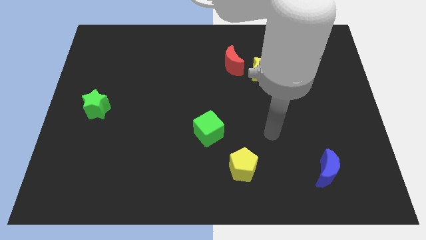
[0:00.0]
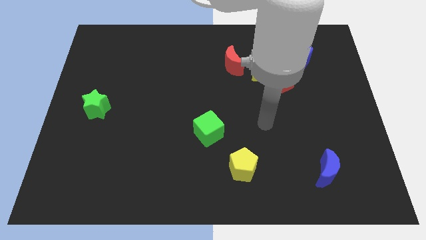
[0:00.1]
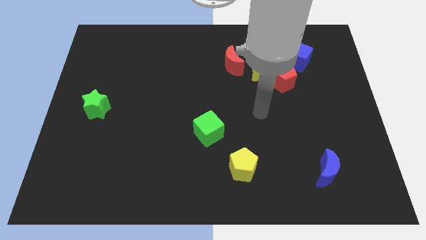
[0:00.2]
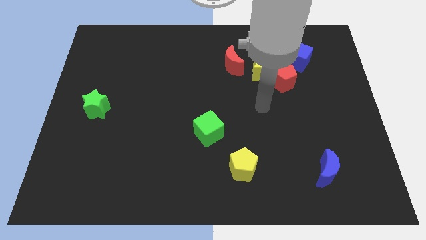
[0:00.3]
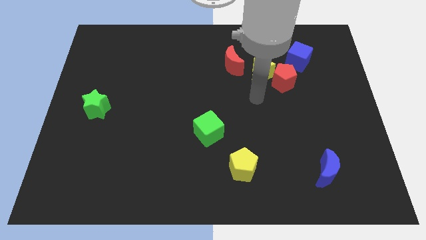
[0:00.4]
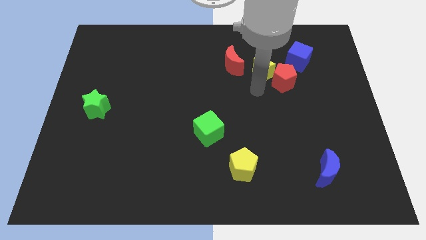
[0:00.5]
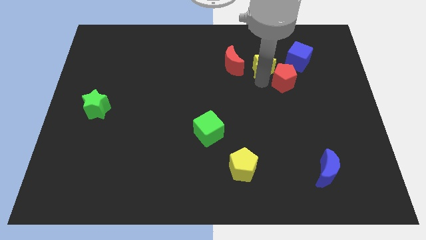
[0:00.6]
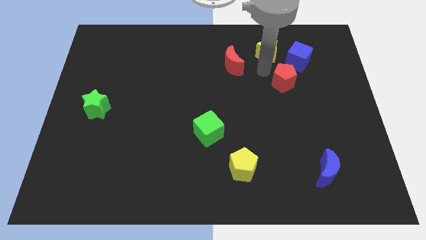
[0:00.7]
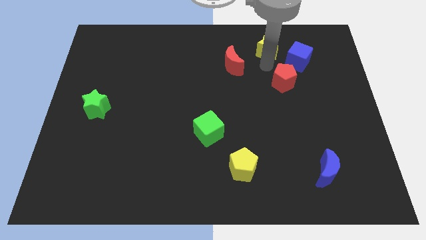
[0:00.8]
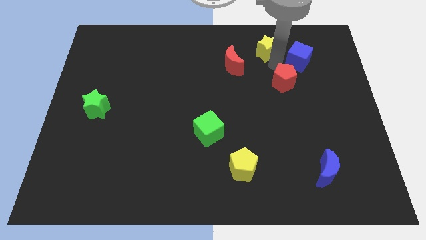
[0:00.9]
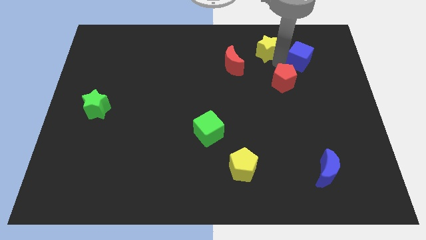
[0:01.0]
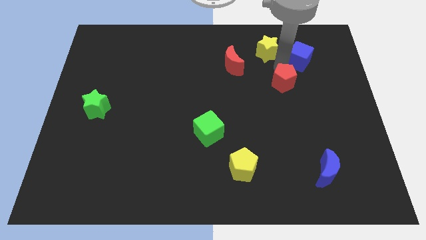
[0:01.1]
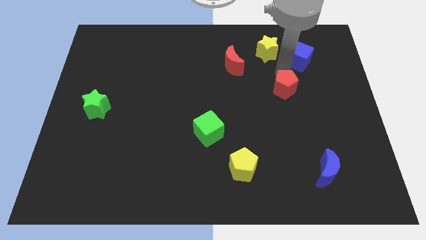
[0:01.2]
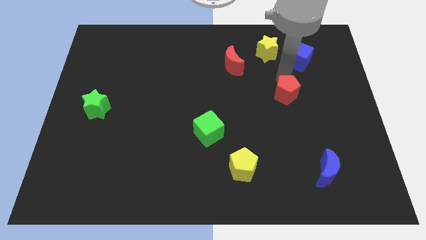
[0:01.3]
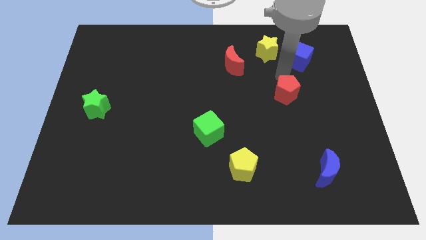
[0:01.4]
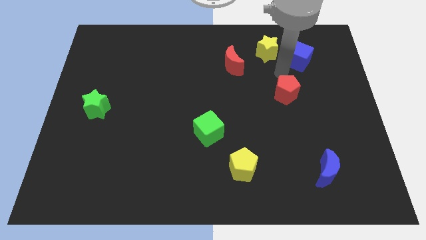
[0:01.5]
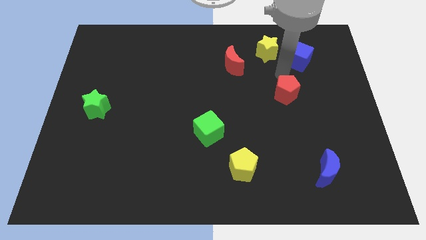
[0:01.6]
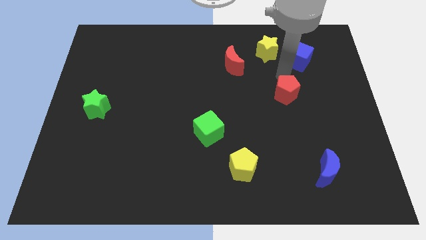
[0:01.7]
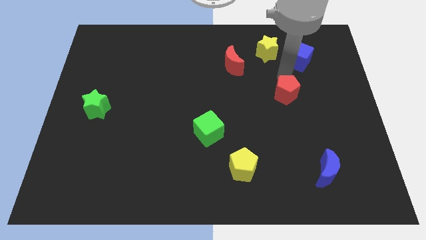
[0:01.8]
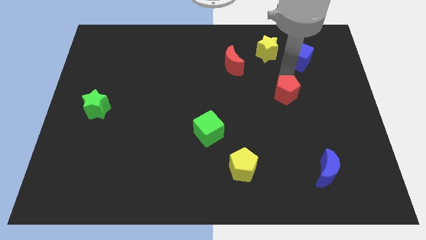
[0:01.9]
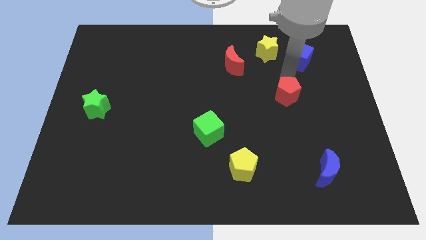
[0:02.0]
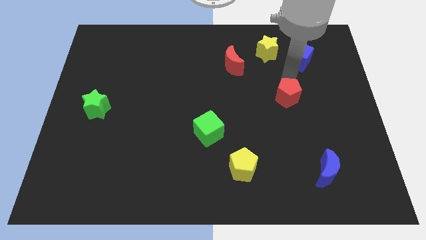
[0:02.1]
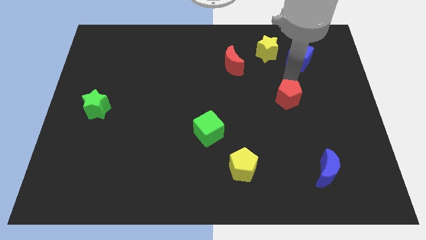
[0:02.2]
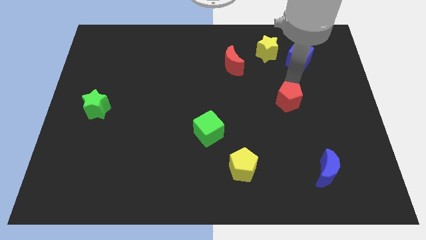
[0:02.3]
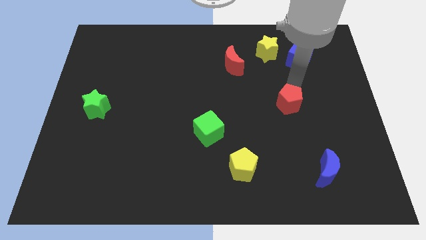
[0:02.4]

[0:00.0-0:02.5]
slide the red pentagon down somewhat

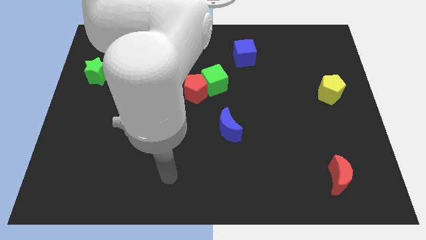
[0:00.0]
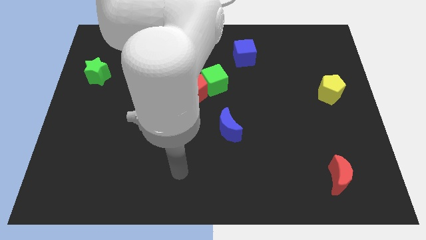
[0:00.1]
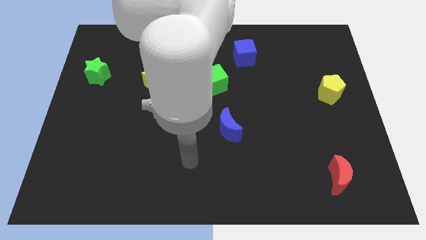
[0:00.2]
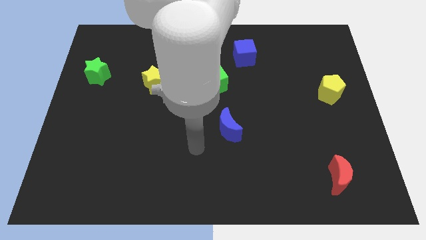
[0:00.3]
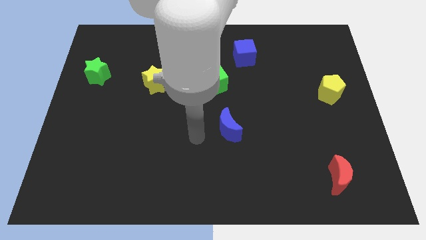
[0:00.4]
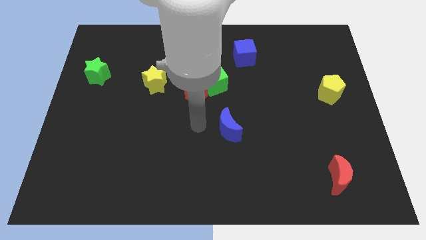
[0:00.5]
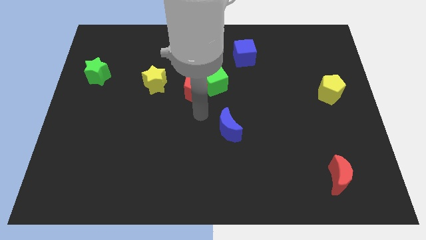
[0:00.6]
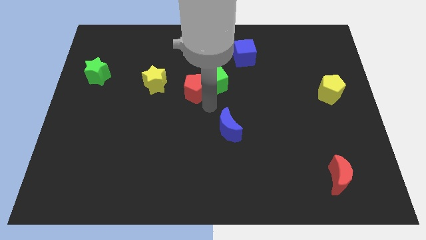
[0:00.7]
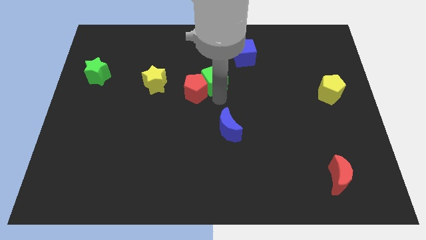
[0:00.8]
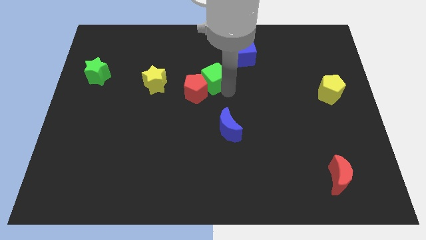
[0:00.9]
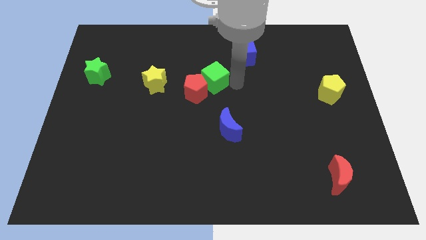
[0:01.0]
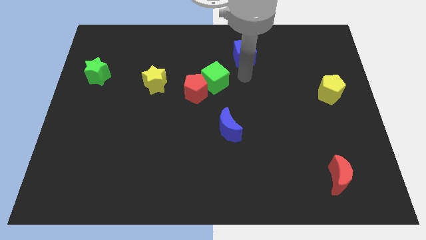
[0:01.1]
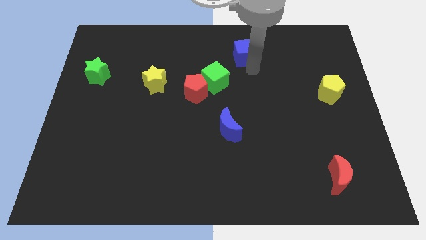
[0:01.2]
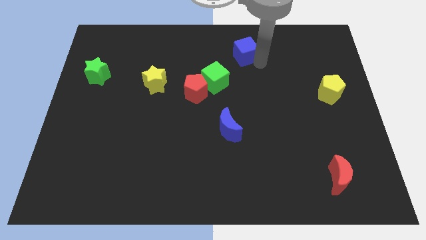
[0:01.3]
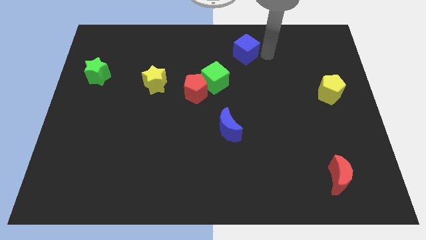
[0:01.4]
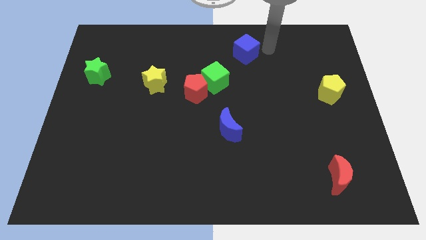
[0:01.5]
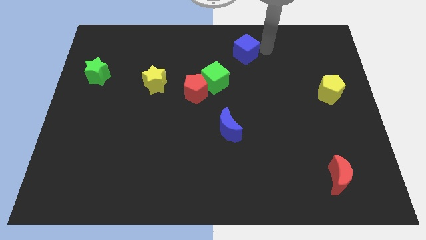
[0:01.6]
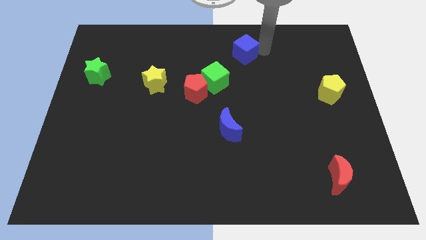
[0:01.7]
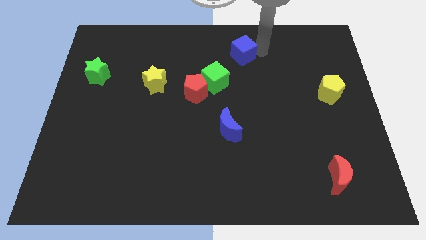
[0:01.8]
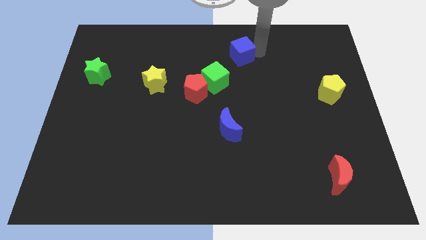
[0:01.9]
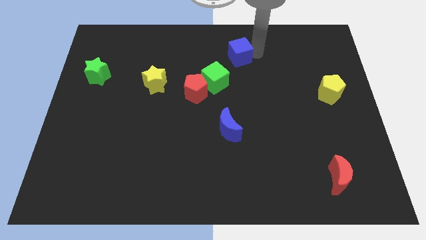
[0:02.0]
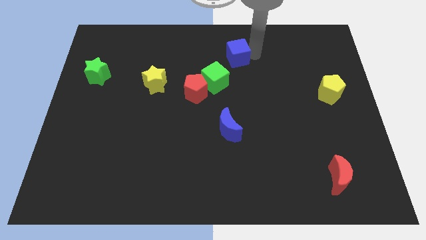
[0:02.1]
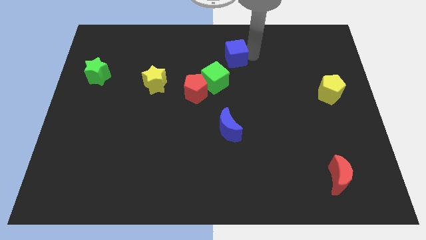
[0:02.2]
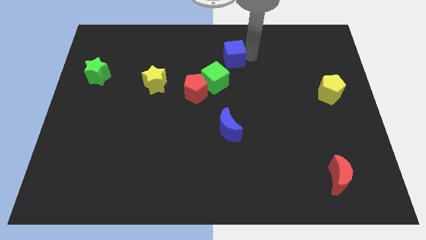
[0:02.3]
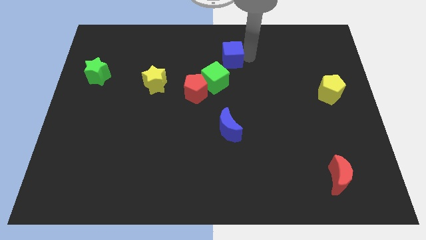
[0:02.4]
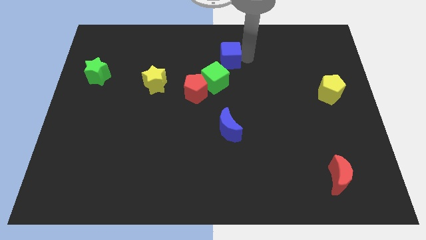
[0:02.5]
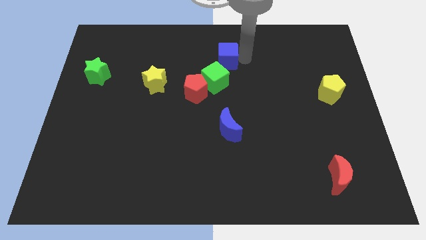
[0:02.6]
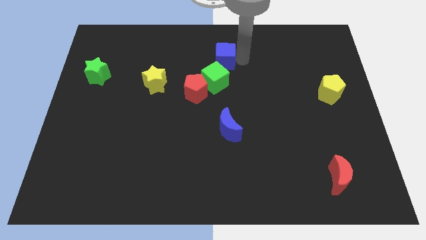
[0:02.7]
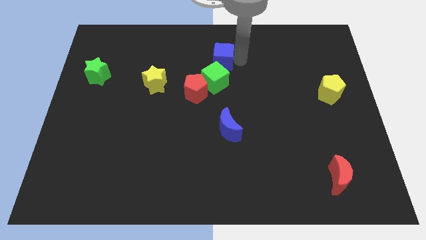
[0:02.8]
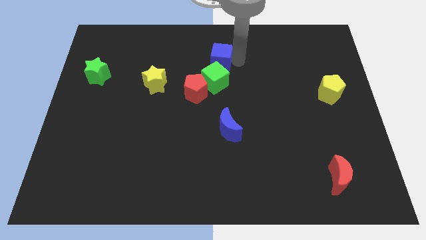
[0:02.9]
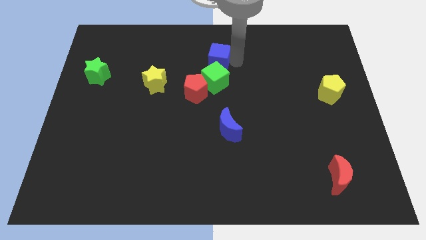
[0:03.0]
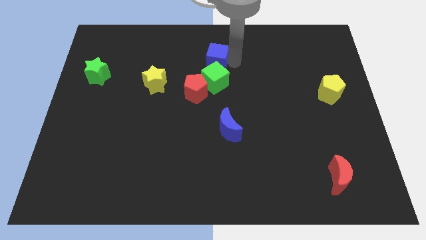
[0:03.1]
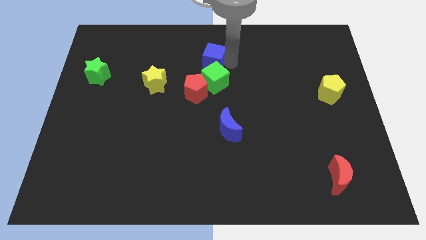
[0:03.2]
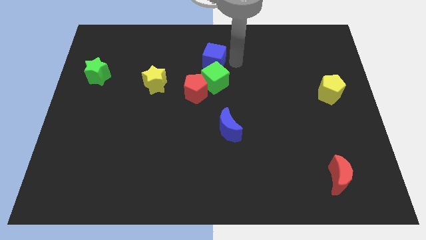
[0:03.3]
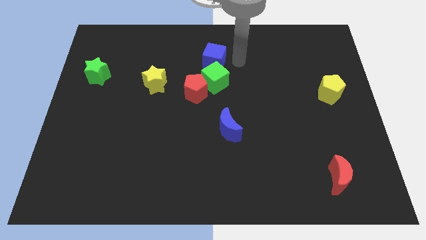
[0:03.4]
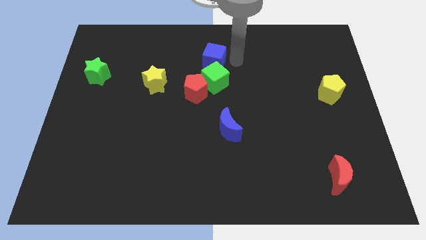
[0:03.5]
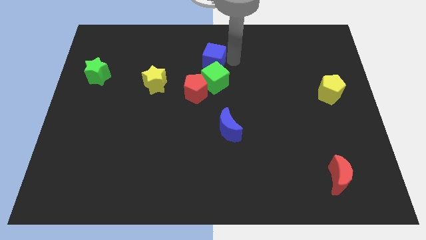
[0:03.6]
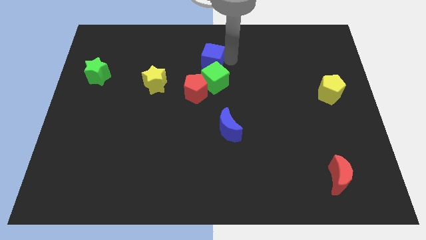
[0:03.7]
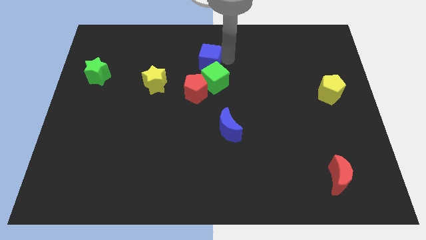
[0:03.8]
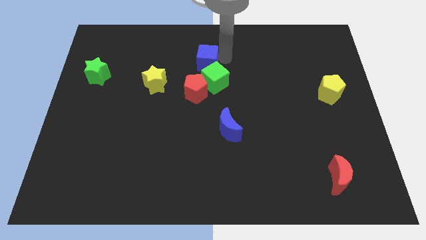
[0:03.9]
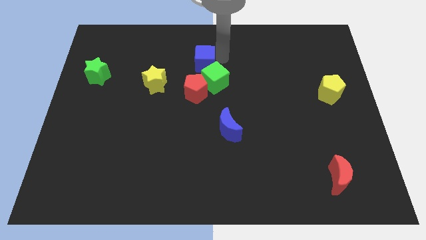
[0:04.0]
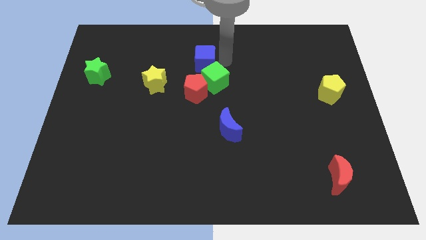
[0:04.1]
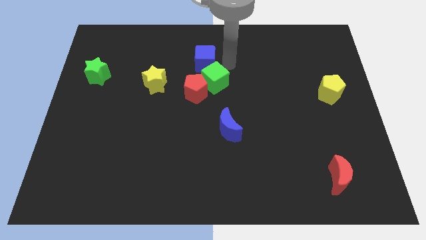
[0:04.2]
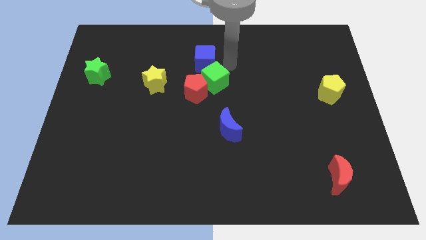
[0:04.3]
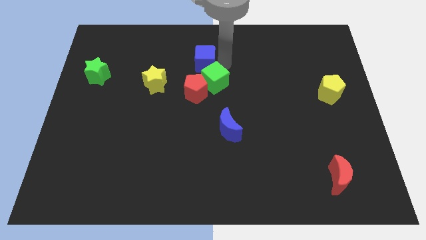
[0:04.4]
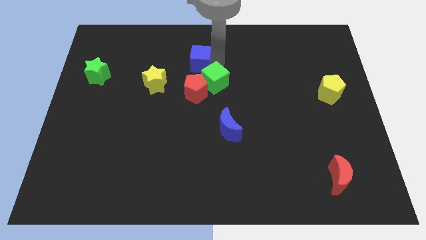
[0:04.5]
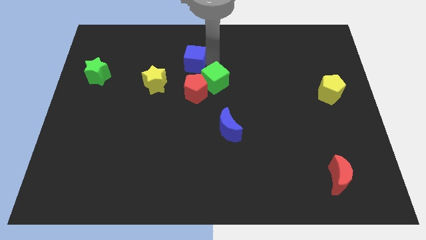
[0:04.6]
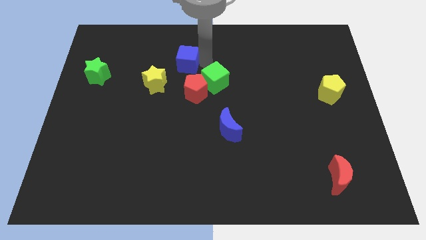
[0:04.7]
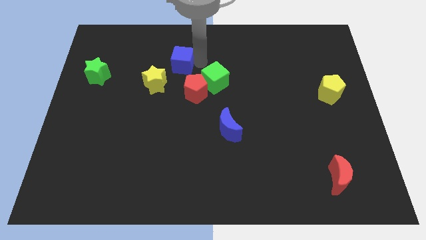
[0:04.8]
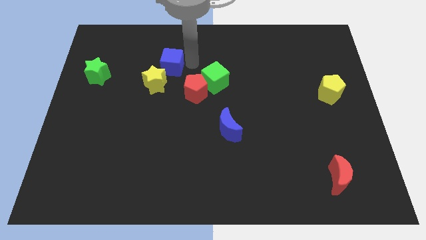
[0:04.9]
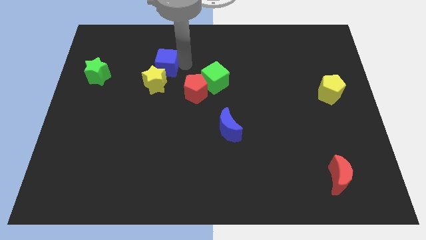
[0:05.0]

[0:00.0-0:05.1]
slide the blue cube to the left

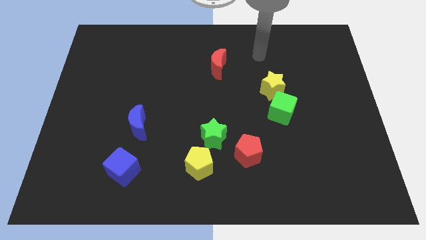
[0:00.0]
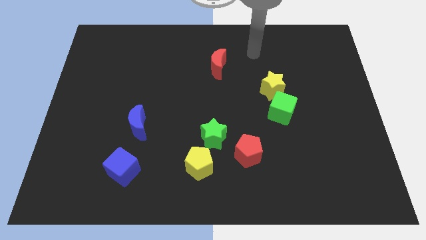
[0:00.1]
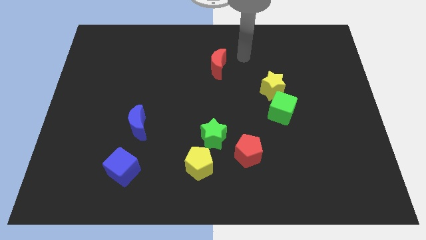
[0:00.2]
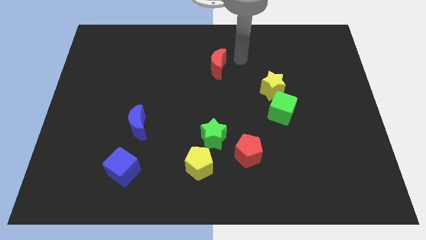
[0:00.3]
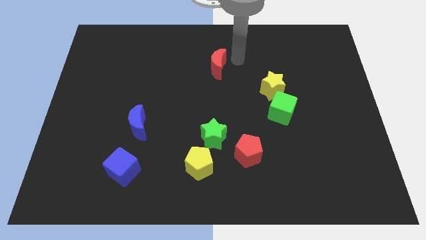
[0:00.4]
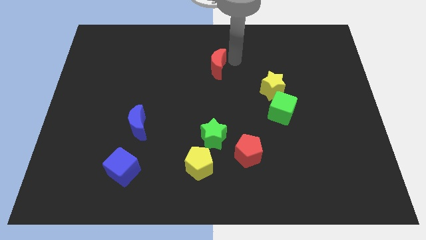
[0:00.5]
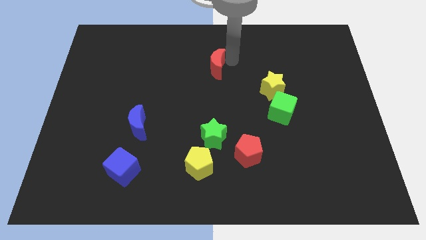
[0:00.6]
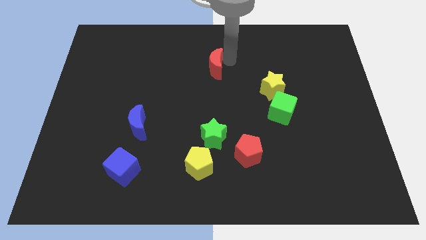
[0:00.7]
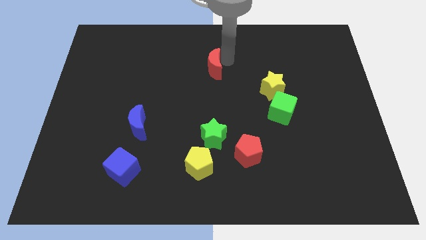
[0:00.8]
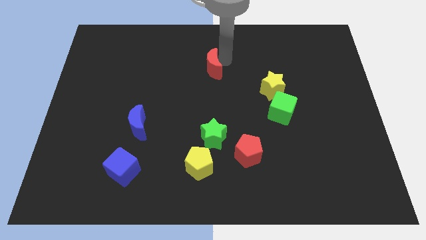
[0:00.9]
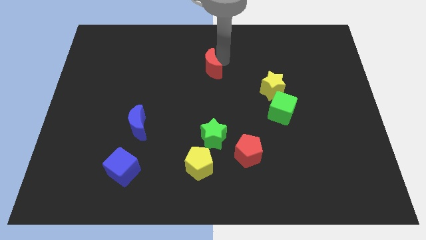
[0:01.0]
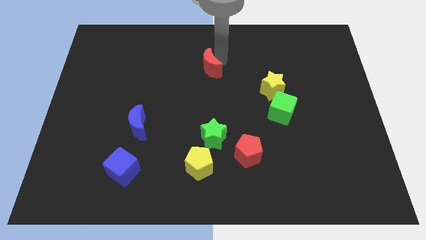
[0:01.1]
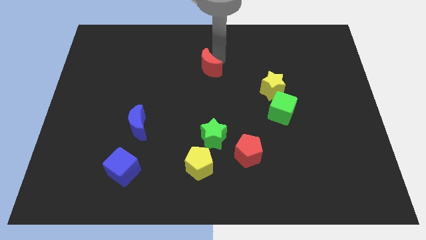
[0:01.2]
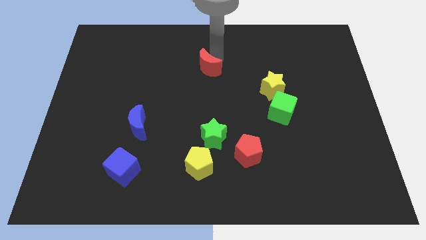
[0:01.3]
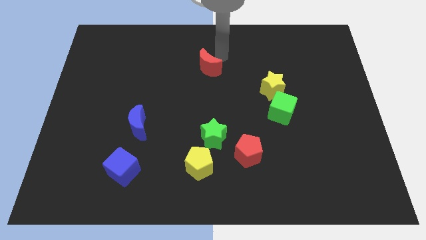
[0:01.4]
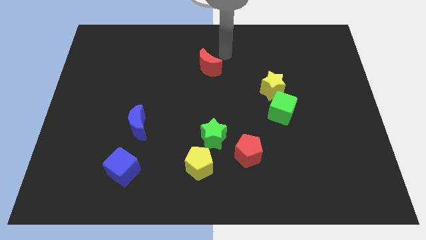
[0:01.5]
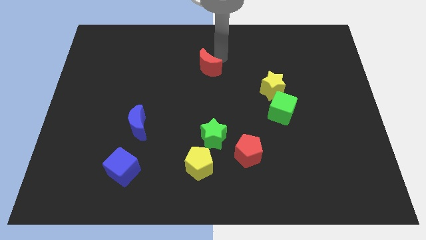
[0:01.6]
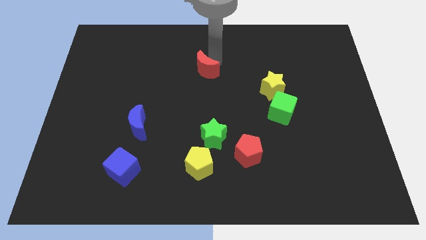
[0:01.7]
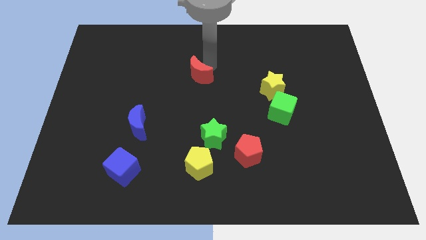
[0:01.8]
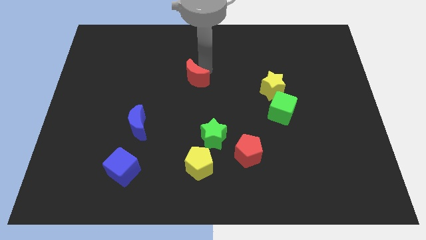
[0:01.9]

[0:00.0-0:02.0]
slide the red moon somewhat downwards and left diagonally
